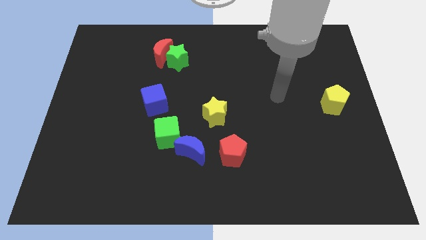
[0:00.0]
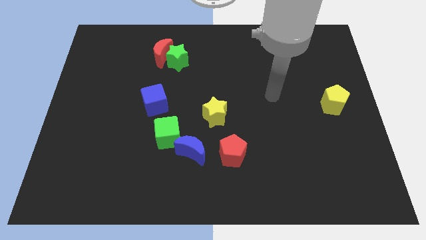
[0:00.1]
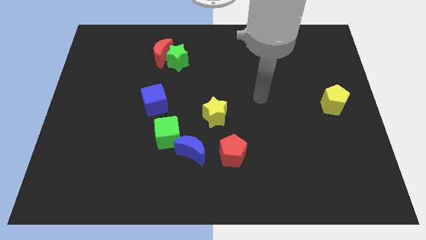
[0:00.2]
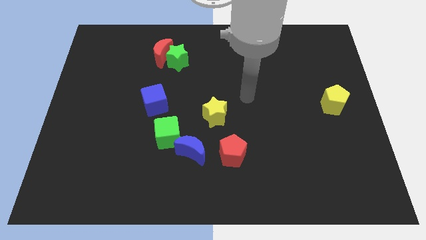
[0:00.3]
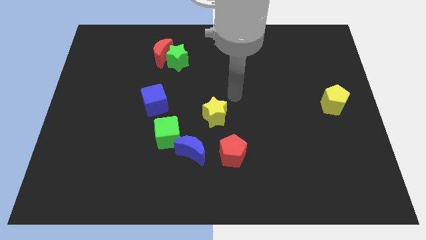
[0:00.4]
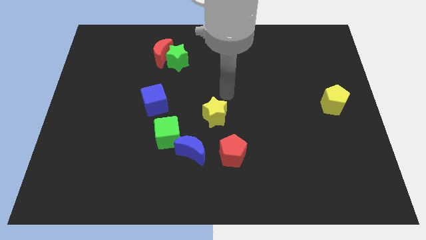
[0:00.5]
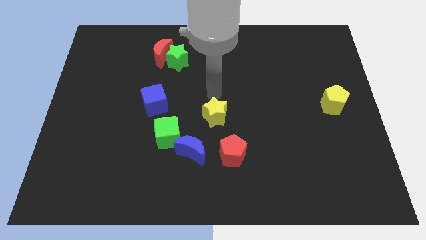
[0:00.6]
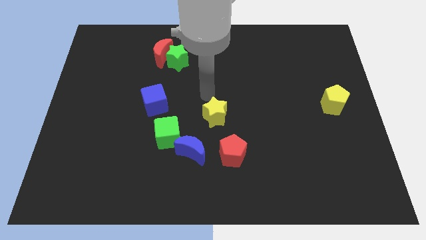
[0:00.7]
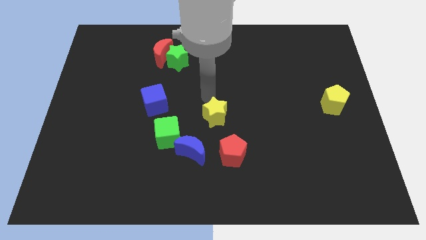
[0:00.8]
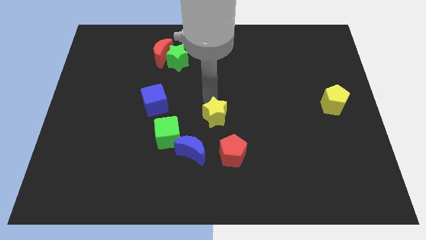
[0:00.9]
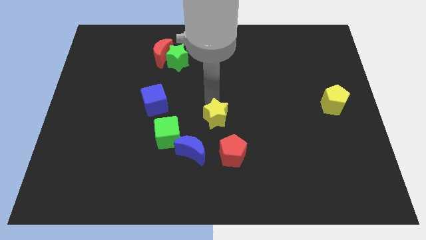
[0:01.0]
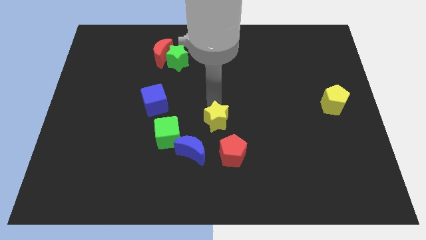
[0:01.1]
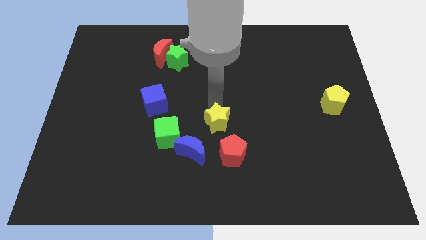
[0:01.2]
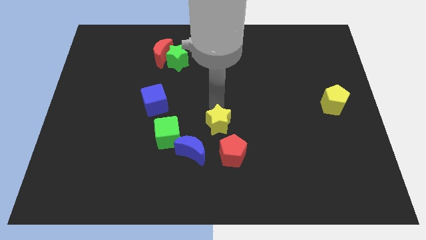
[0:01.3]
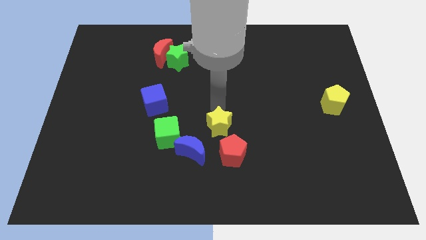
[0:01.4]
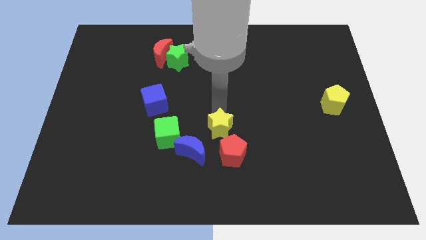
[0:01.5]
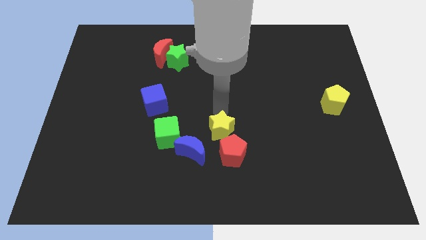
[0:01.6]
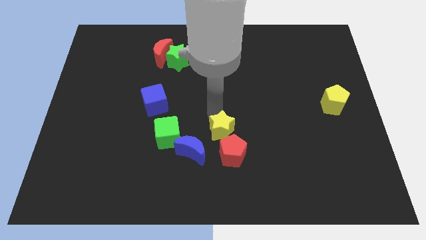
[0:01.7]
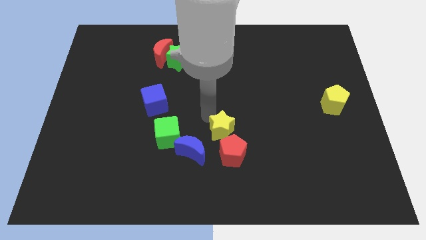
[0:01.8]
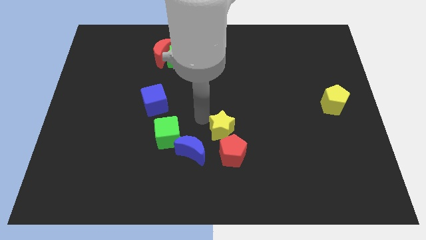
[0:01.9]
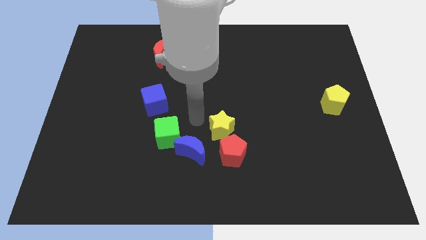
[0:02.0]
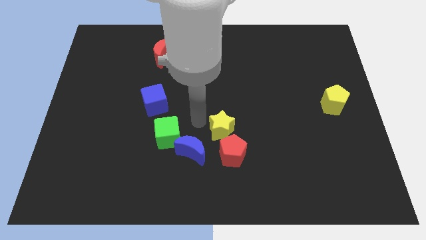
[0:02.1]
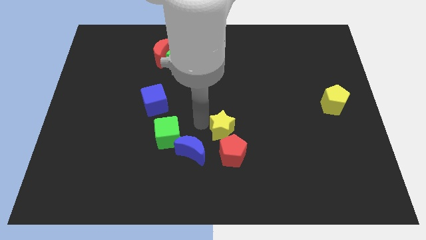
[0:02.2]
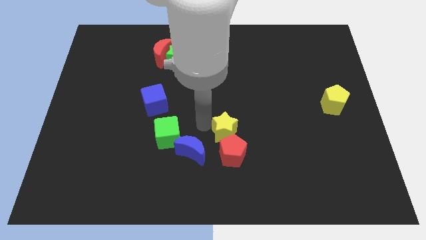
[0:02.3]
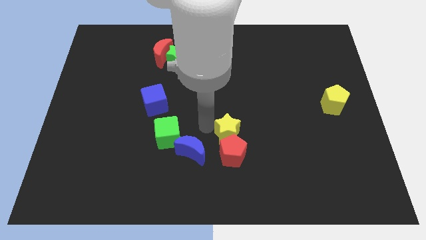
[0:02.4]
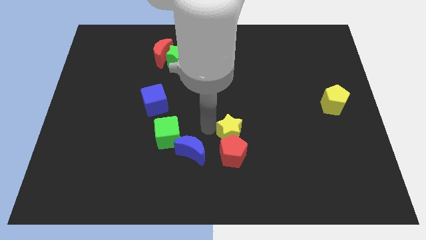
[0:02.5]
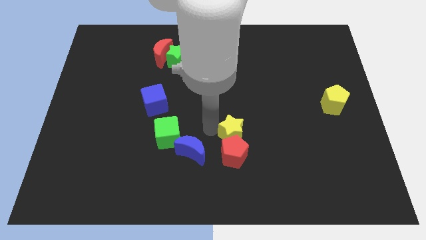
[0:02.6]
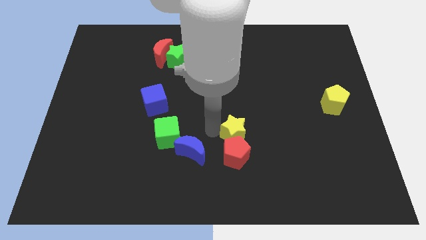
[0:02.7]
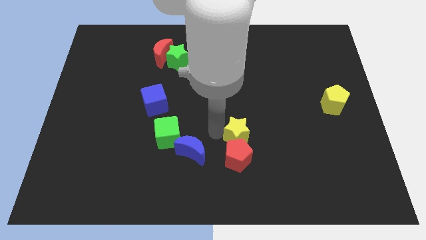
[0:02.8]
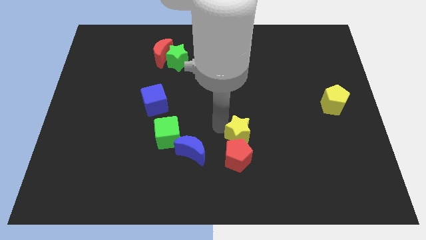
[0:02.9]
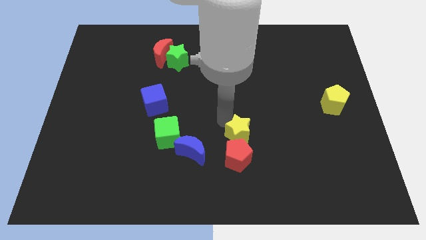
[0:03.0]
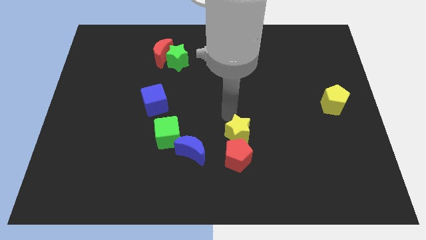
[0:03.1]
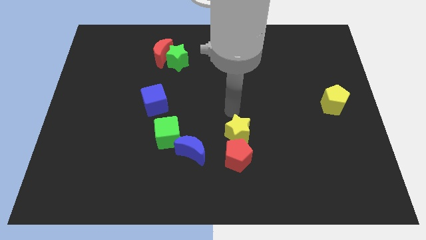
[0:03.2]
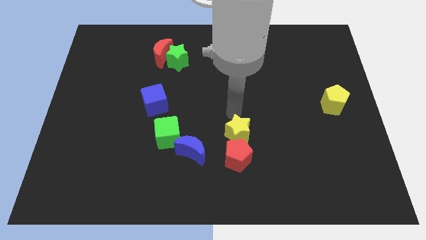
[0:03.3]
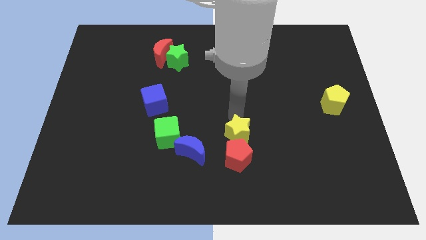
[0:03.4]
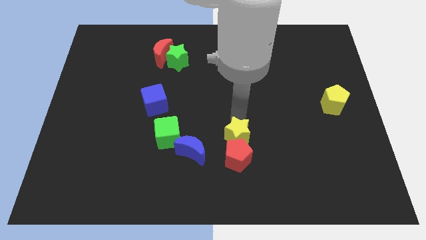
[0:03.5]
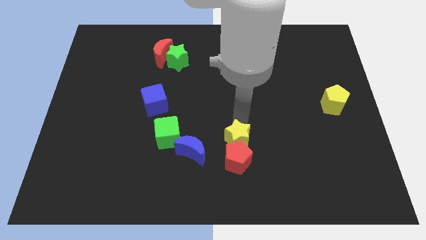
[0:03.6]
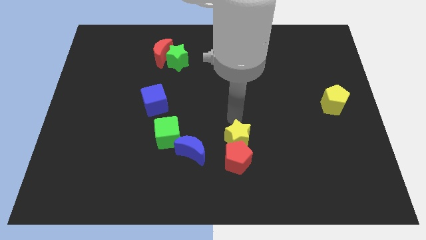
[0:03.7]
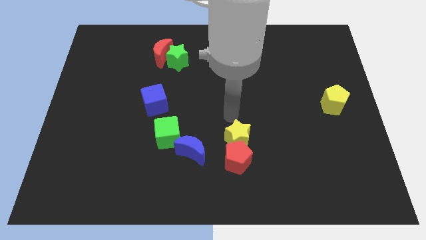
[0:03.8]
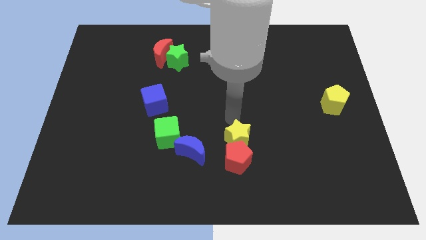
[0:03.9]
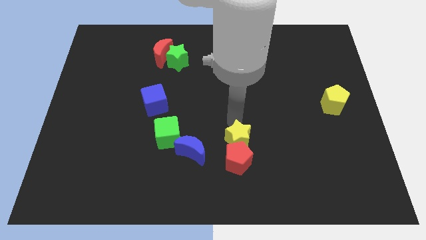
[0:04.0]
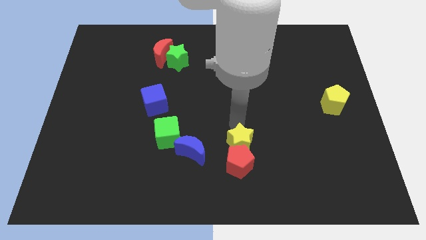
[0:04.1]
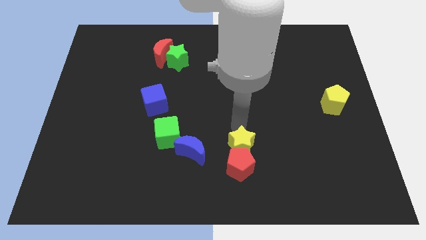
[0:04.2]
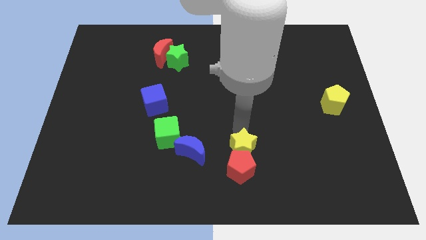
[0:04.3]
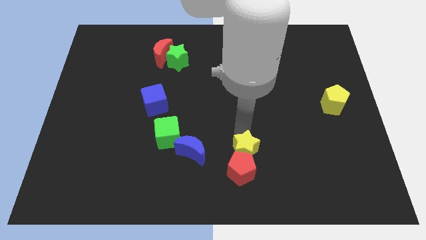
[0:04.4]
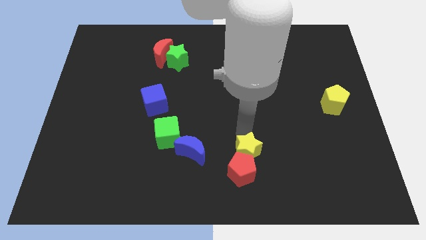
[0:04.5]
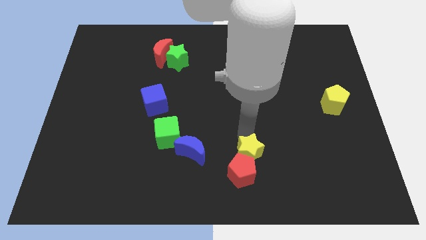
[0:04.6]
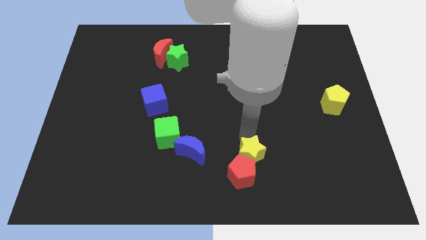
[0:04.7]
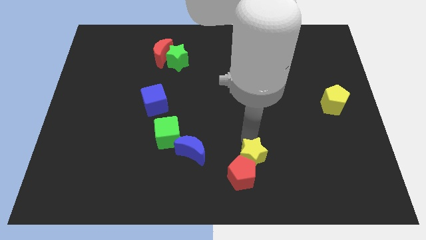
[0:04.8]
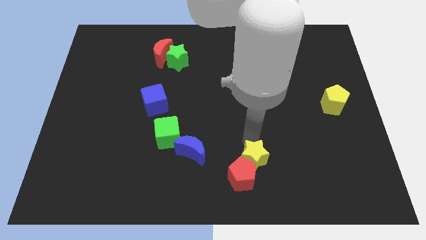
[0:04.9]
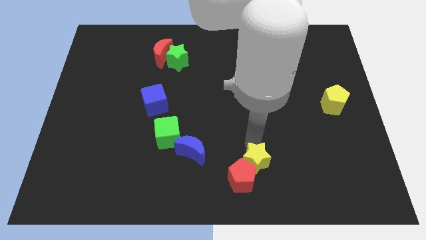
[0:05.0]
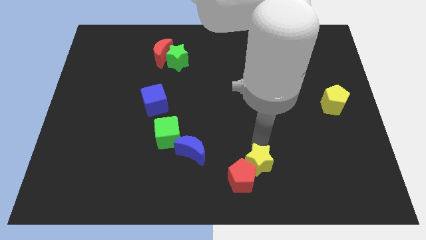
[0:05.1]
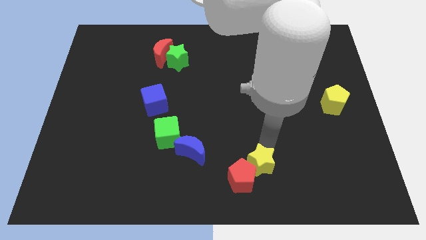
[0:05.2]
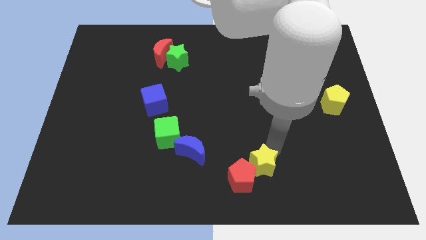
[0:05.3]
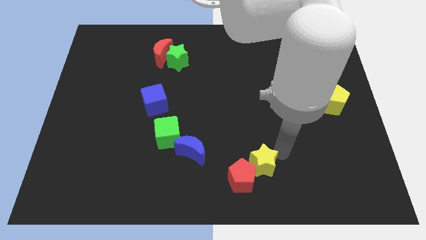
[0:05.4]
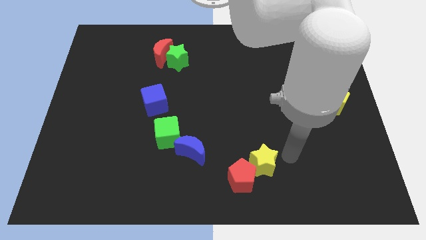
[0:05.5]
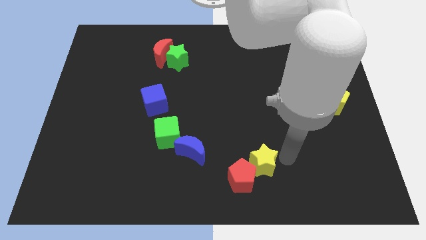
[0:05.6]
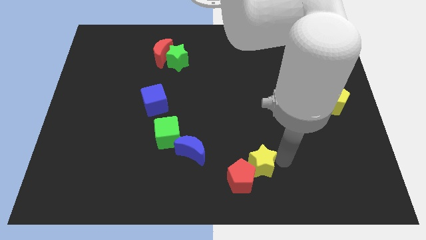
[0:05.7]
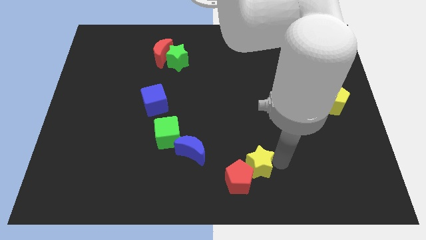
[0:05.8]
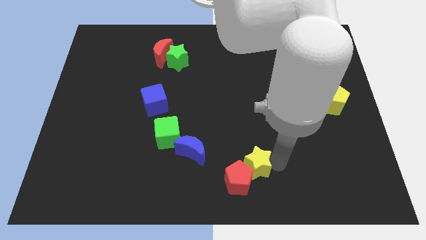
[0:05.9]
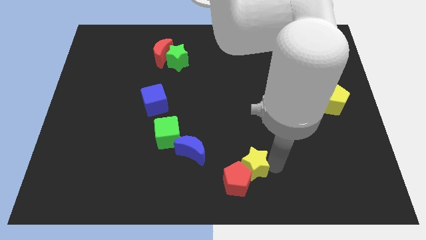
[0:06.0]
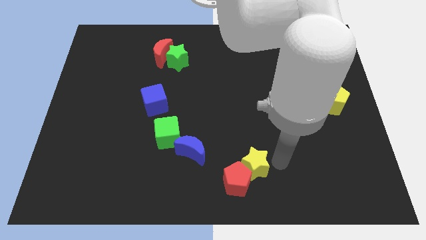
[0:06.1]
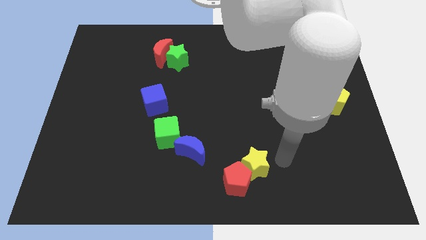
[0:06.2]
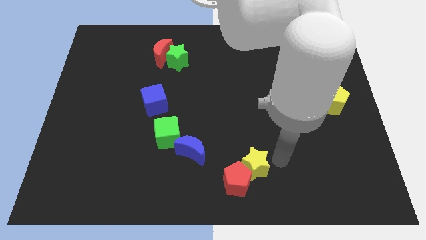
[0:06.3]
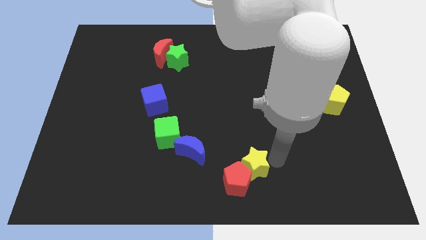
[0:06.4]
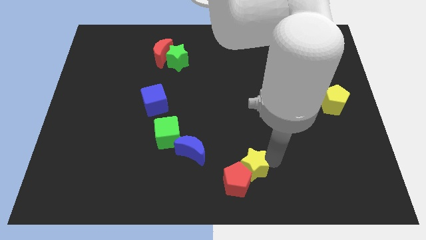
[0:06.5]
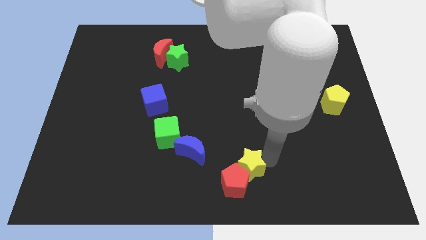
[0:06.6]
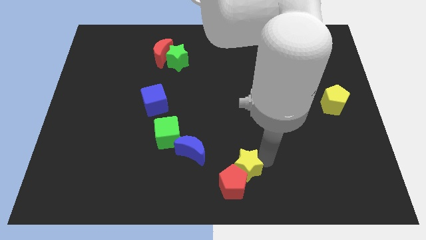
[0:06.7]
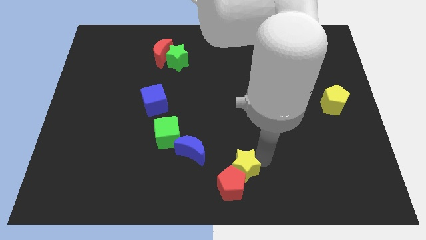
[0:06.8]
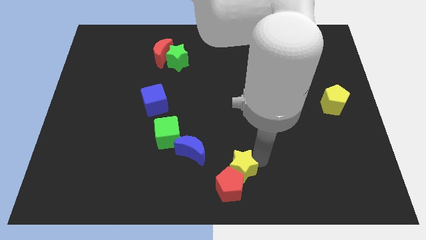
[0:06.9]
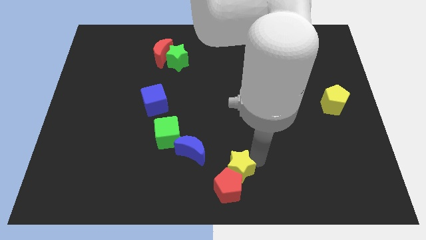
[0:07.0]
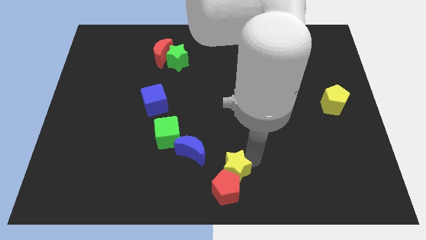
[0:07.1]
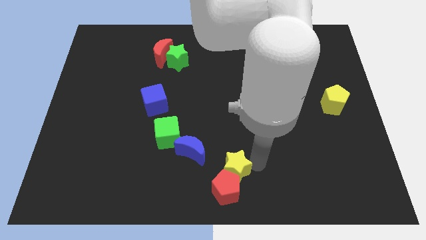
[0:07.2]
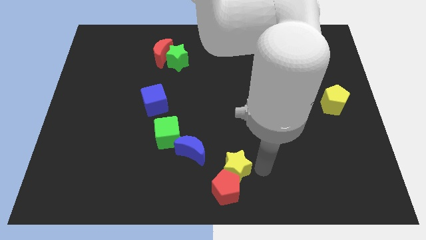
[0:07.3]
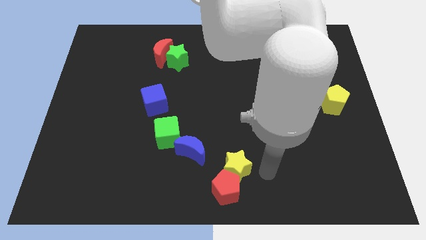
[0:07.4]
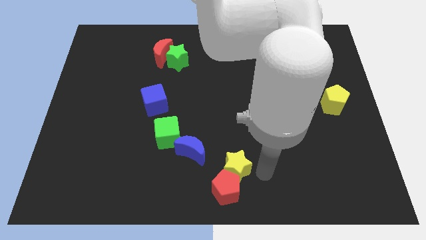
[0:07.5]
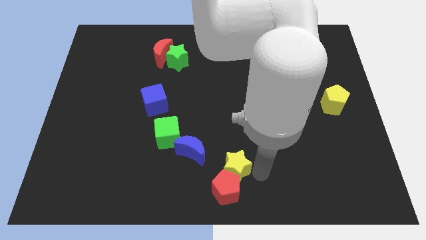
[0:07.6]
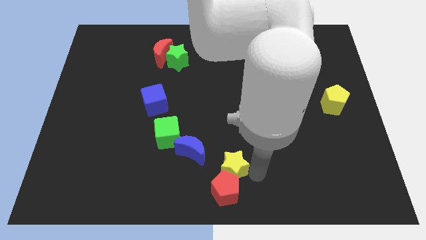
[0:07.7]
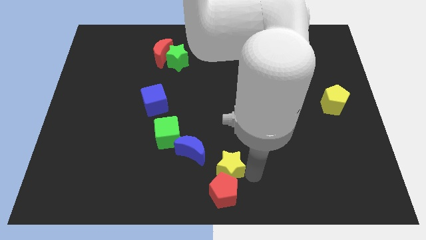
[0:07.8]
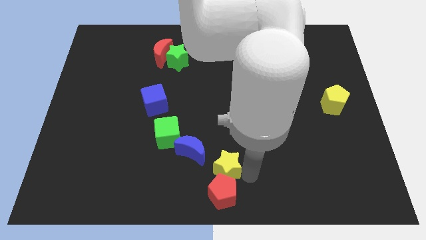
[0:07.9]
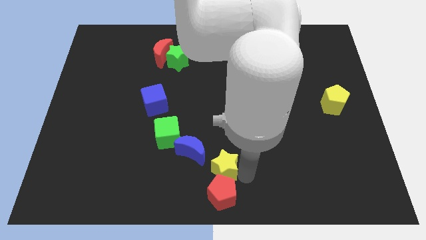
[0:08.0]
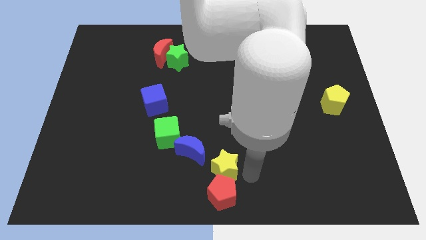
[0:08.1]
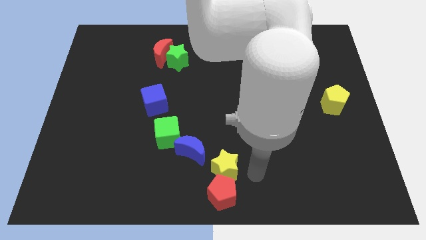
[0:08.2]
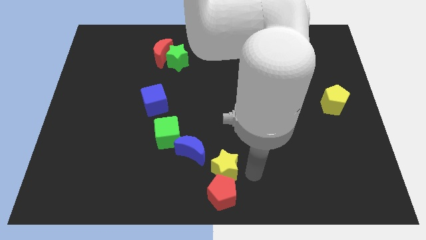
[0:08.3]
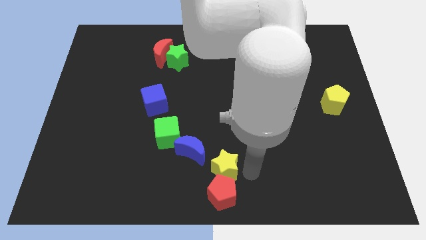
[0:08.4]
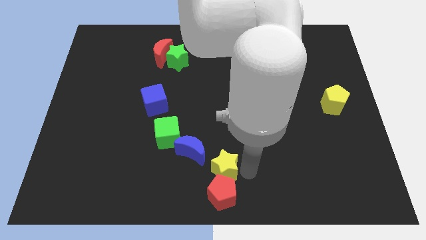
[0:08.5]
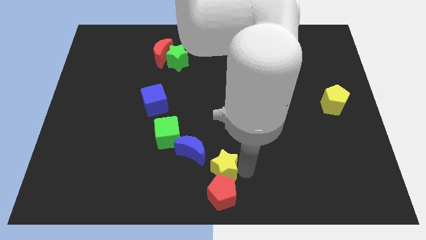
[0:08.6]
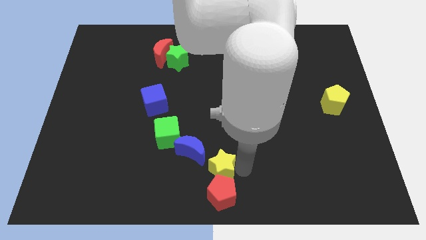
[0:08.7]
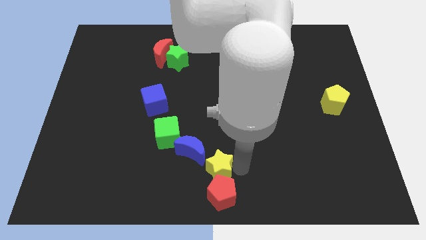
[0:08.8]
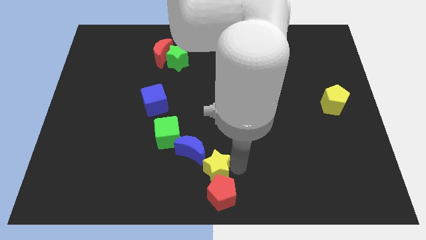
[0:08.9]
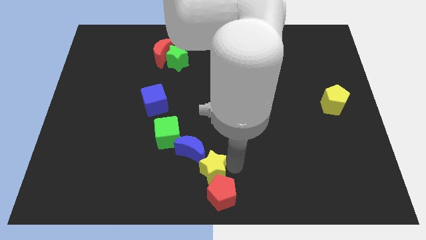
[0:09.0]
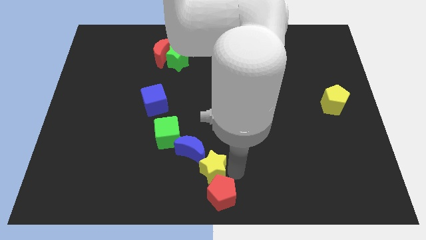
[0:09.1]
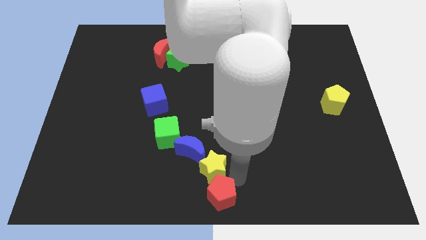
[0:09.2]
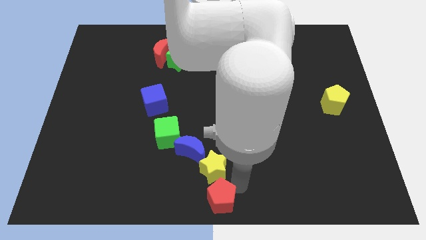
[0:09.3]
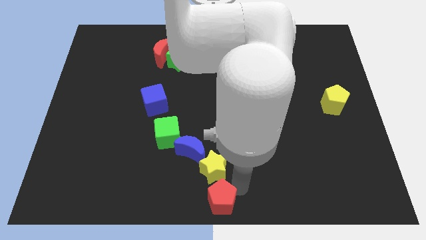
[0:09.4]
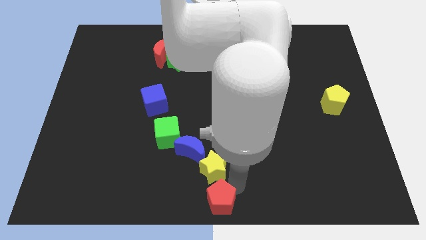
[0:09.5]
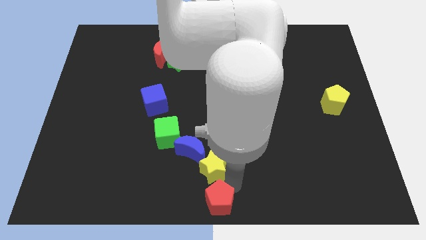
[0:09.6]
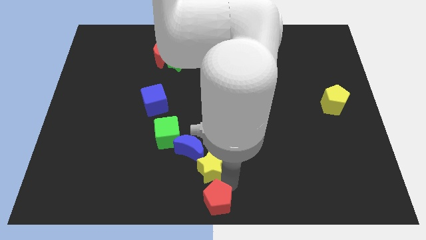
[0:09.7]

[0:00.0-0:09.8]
move the yellow star to the bottom right of the green cube
